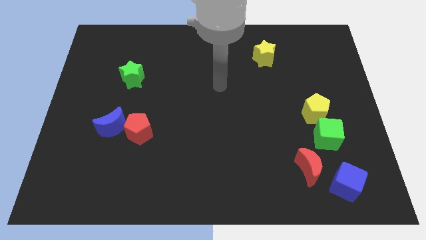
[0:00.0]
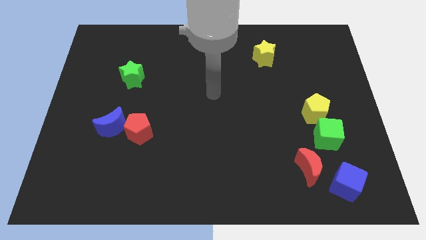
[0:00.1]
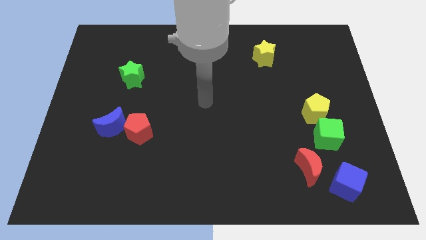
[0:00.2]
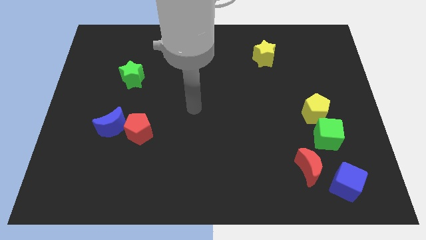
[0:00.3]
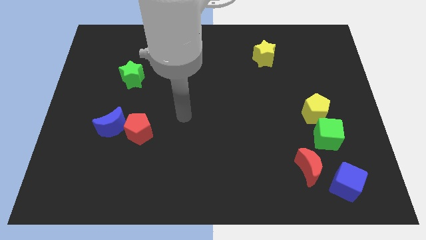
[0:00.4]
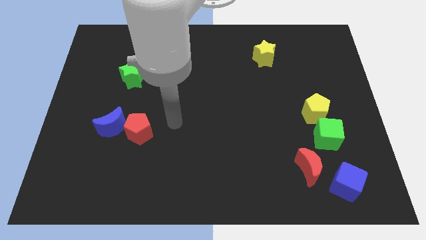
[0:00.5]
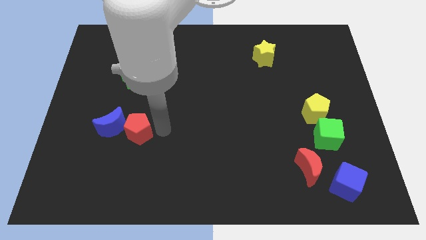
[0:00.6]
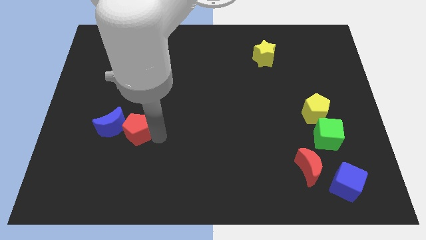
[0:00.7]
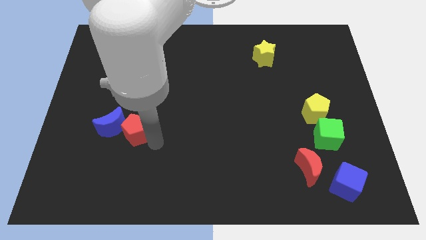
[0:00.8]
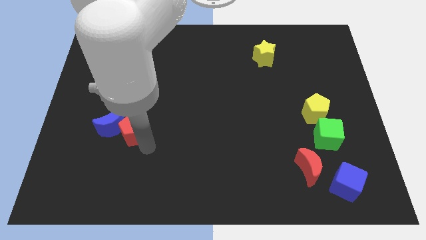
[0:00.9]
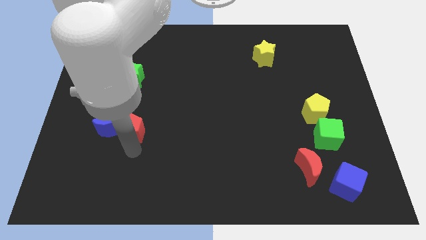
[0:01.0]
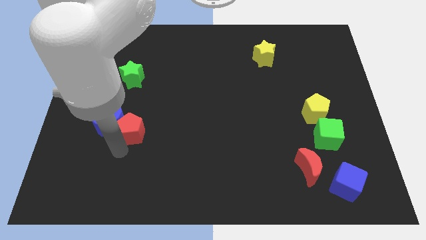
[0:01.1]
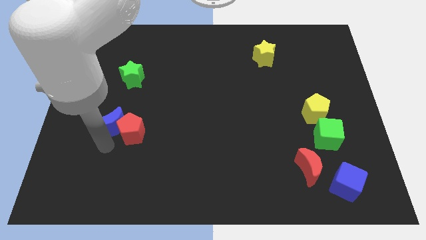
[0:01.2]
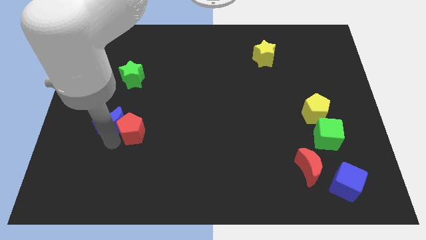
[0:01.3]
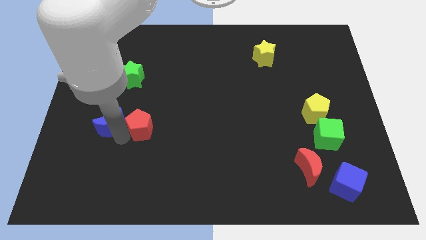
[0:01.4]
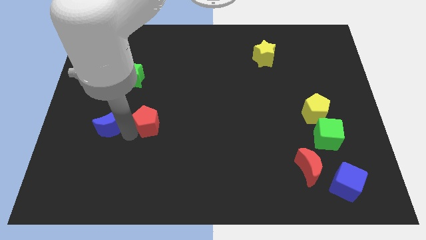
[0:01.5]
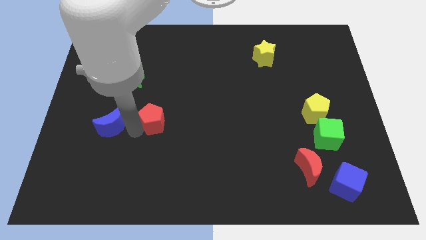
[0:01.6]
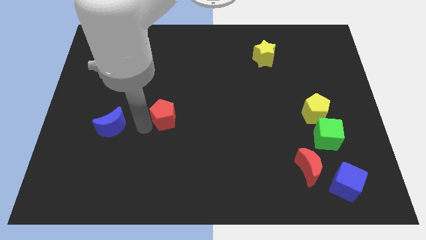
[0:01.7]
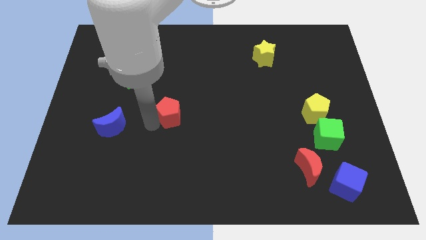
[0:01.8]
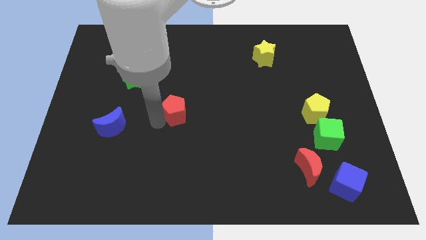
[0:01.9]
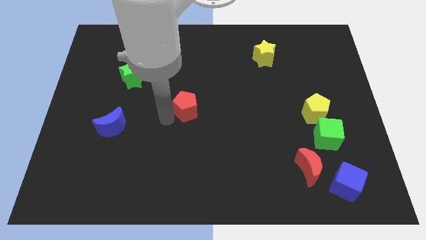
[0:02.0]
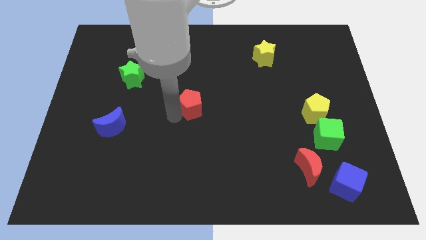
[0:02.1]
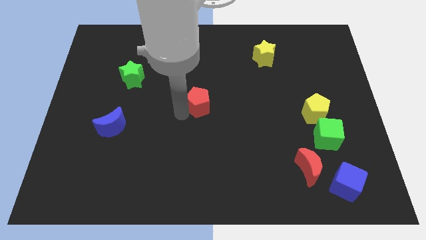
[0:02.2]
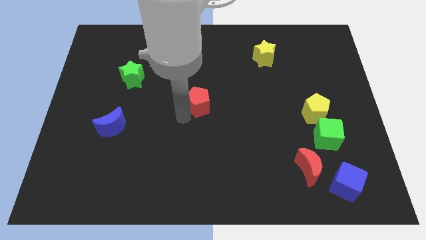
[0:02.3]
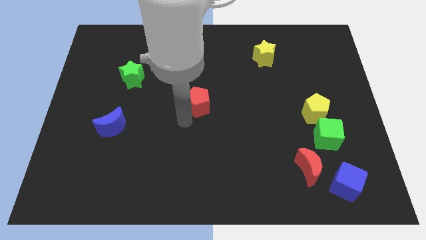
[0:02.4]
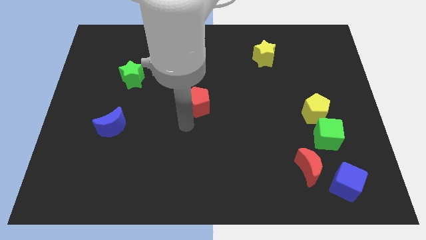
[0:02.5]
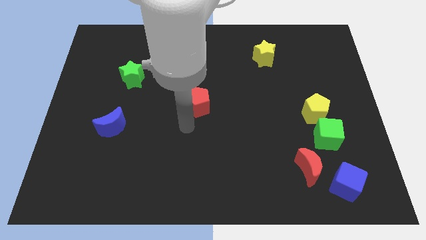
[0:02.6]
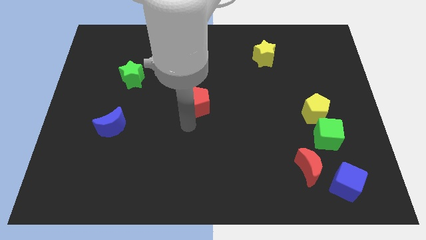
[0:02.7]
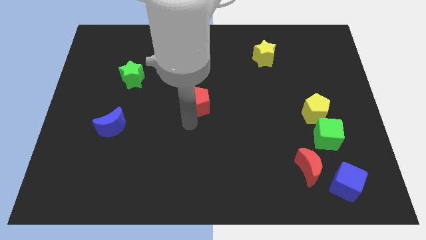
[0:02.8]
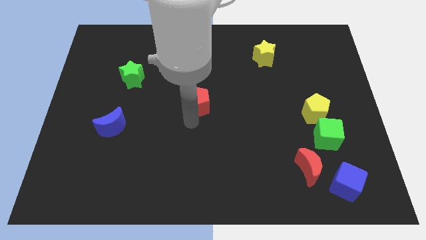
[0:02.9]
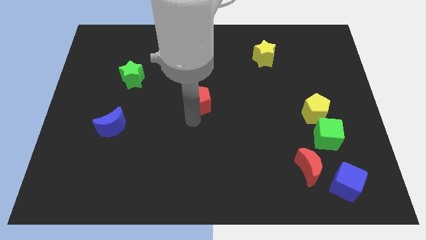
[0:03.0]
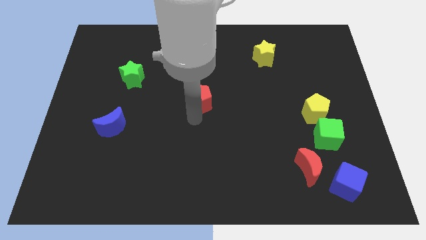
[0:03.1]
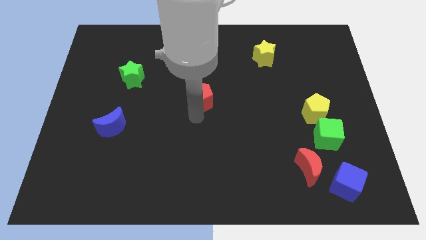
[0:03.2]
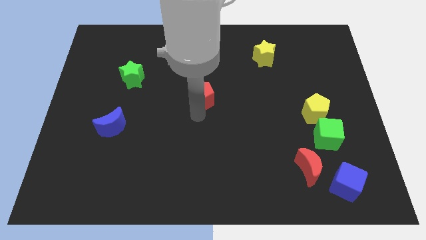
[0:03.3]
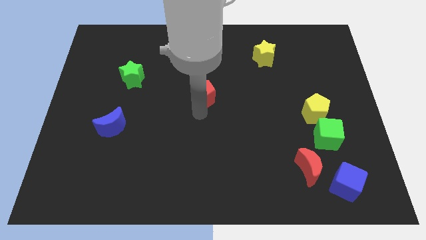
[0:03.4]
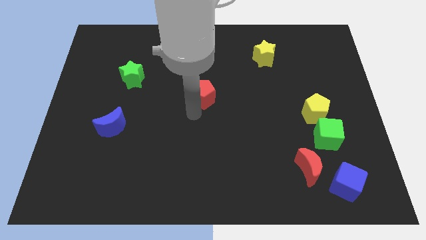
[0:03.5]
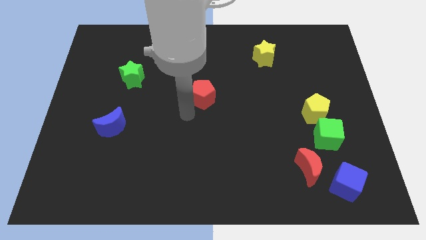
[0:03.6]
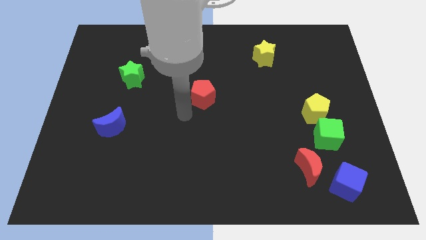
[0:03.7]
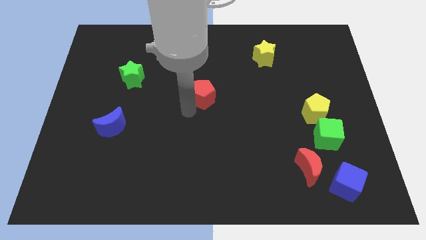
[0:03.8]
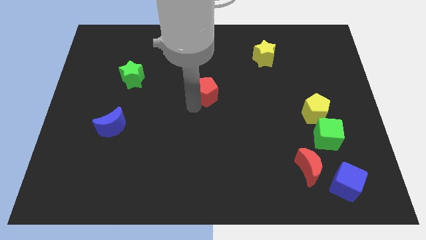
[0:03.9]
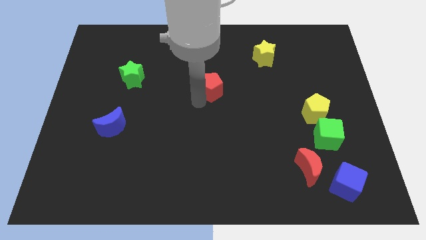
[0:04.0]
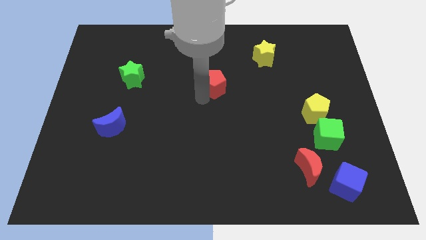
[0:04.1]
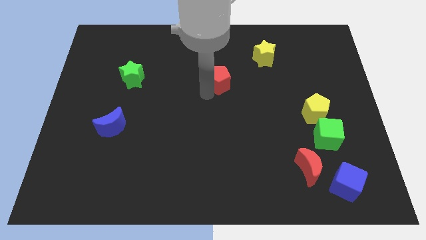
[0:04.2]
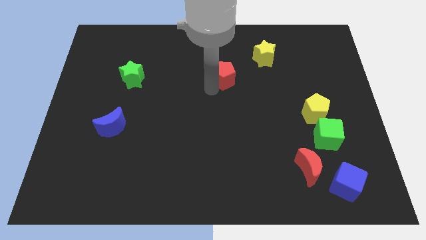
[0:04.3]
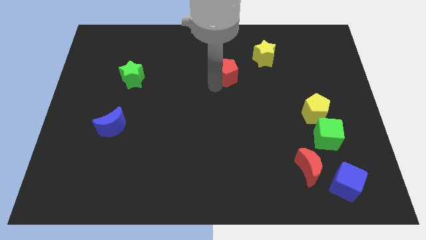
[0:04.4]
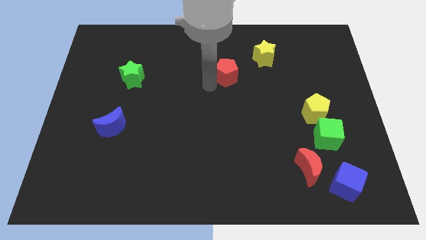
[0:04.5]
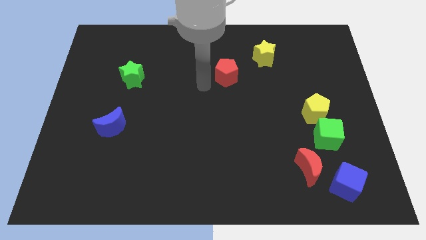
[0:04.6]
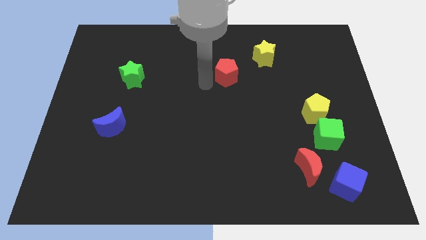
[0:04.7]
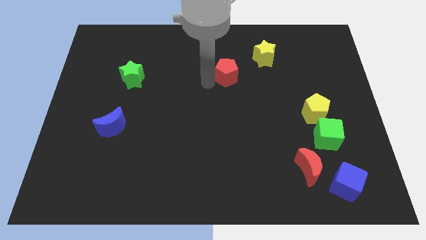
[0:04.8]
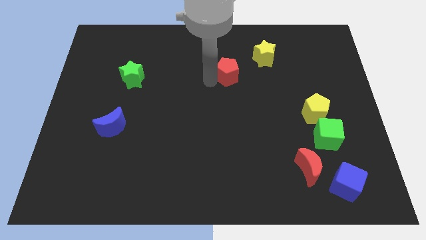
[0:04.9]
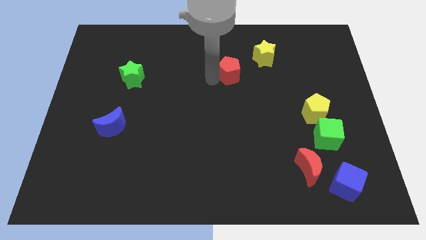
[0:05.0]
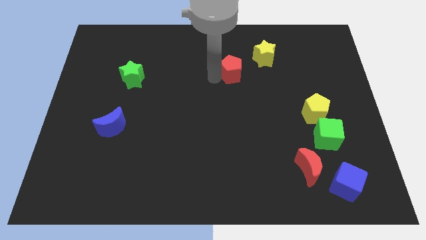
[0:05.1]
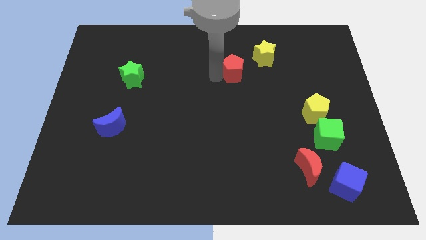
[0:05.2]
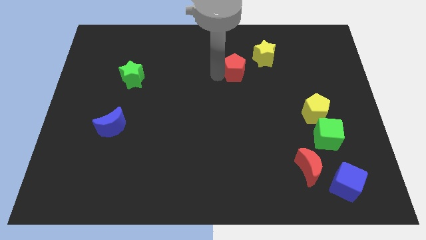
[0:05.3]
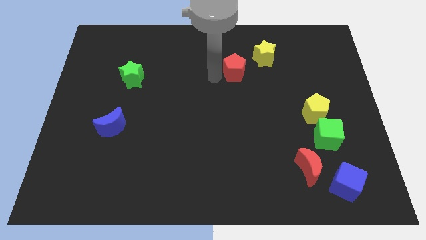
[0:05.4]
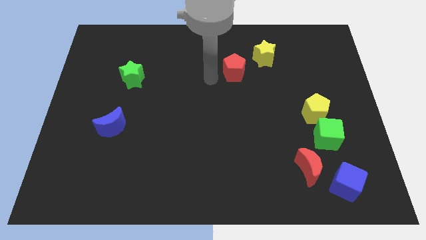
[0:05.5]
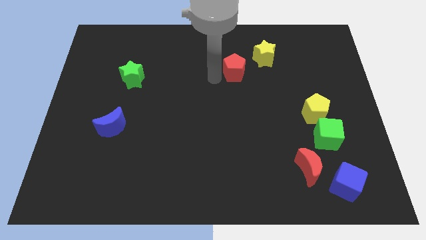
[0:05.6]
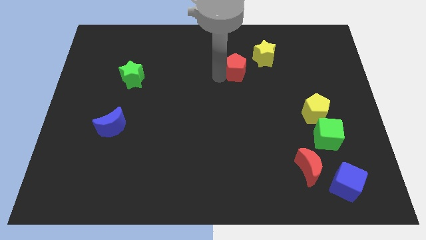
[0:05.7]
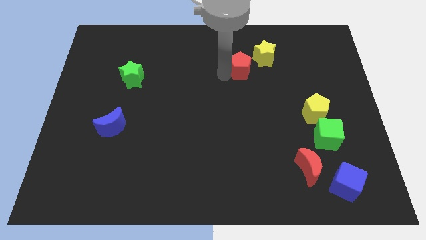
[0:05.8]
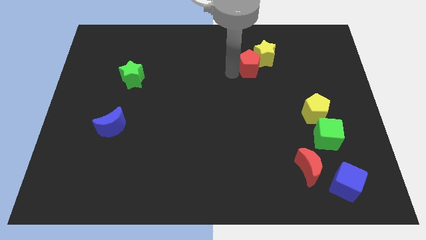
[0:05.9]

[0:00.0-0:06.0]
slide the red pentagon close to the yellow star

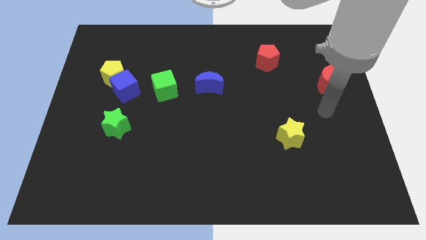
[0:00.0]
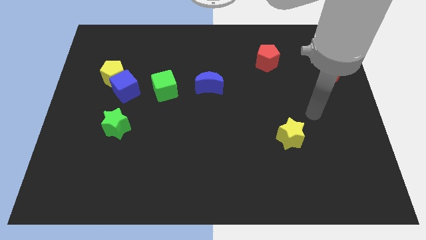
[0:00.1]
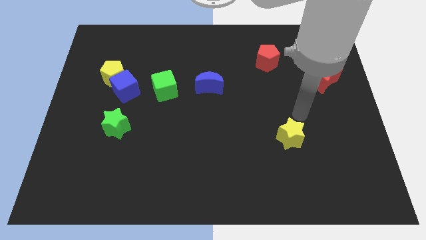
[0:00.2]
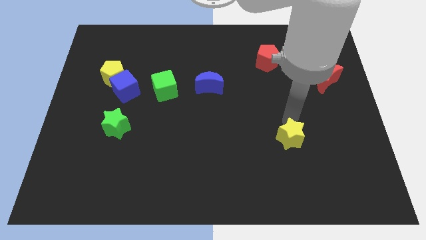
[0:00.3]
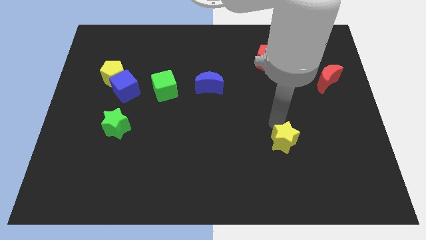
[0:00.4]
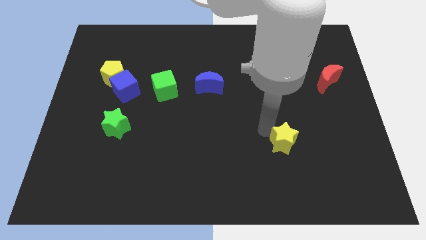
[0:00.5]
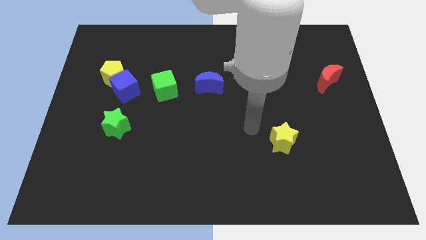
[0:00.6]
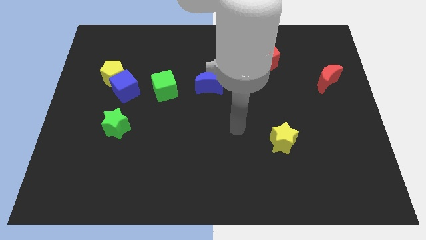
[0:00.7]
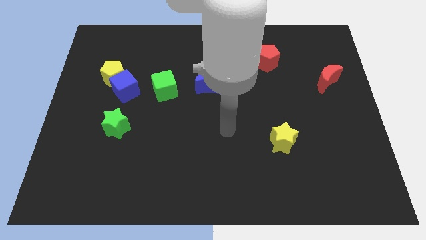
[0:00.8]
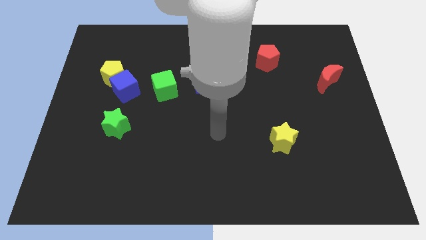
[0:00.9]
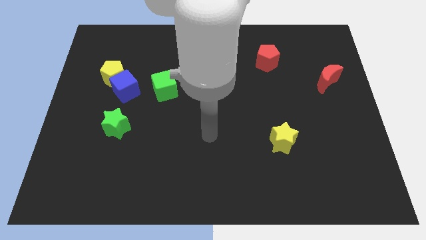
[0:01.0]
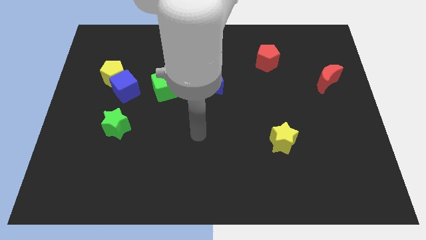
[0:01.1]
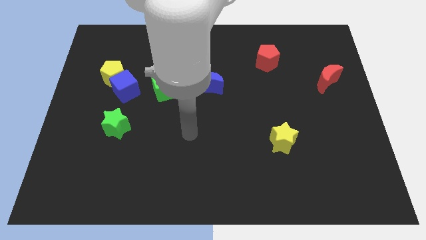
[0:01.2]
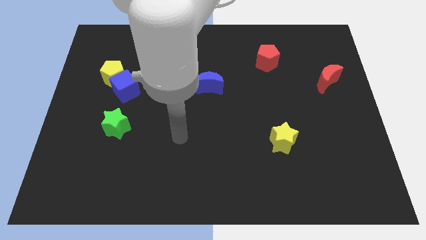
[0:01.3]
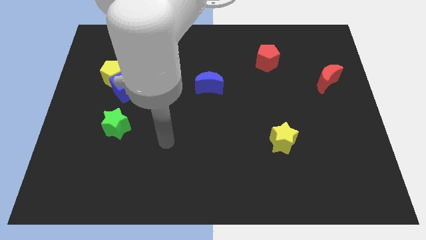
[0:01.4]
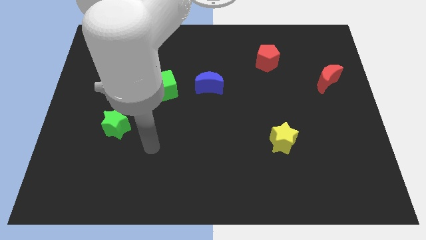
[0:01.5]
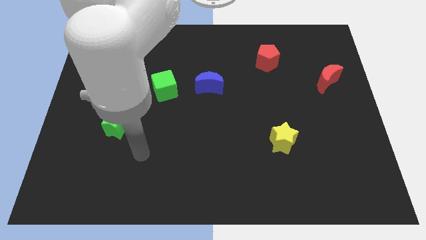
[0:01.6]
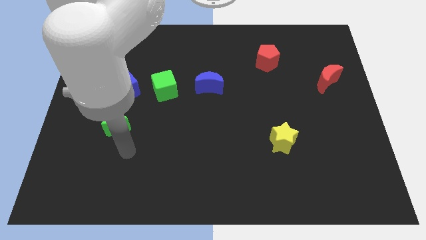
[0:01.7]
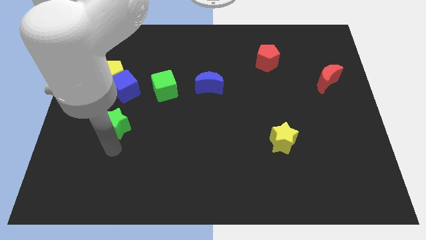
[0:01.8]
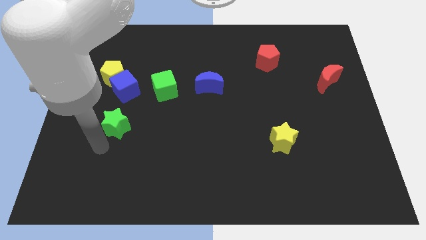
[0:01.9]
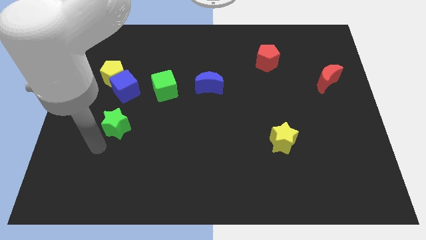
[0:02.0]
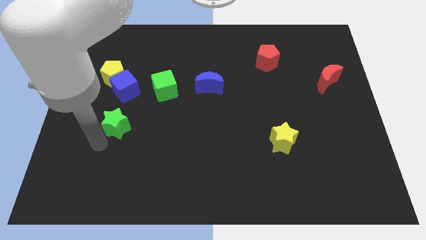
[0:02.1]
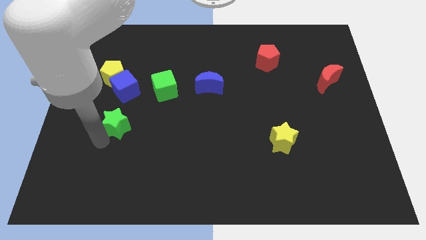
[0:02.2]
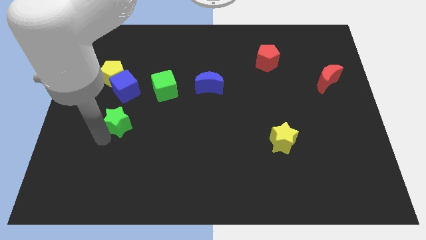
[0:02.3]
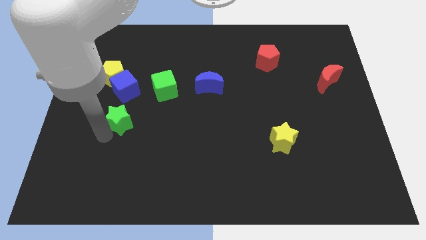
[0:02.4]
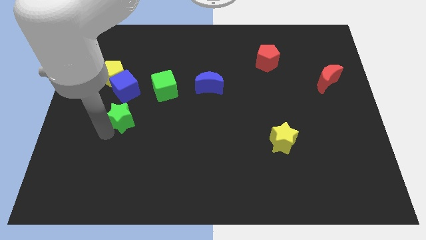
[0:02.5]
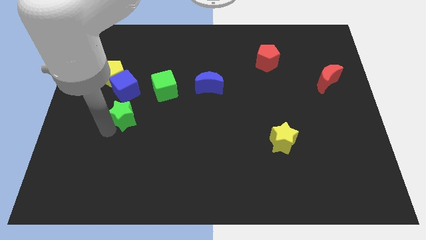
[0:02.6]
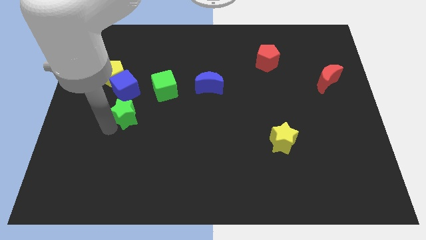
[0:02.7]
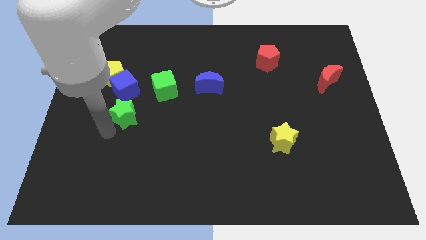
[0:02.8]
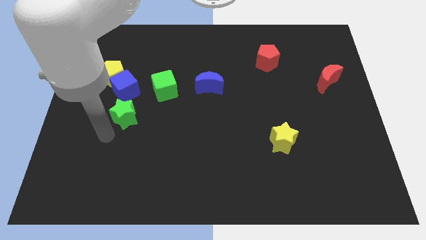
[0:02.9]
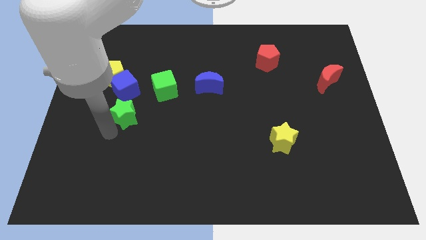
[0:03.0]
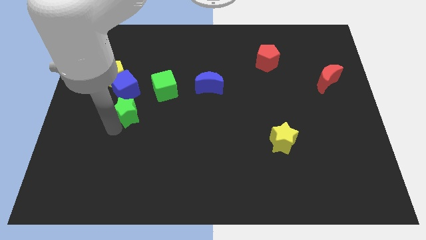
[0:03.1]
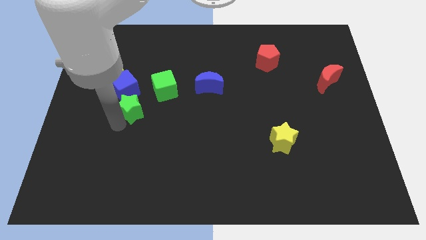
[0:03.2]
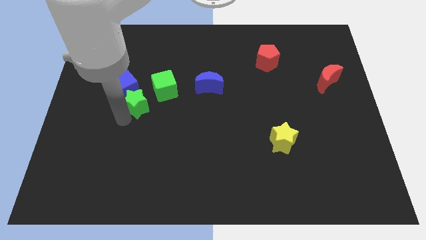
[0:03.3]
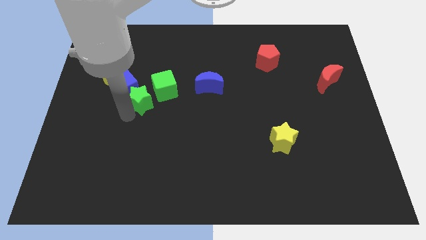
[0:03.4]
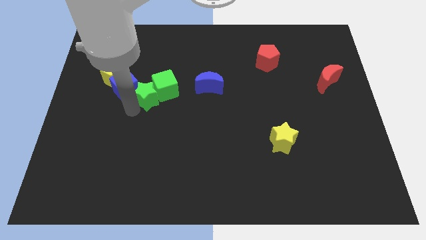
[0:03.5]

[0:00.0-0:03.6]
slide the green star next to the green cube
